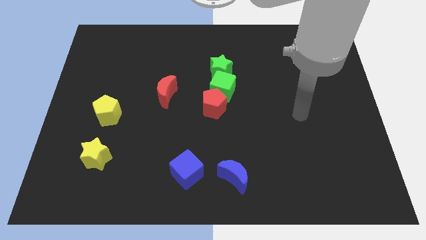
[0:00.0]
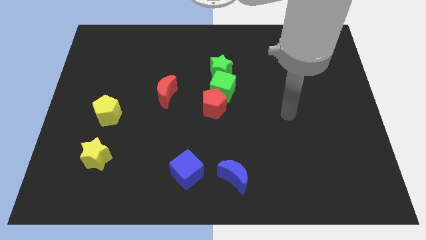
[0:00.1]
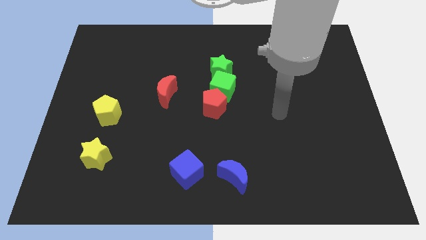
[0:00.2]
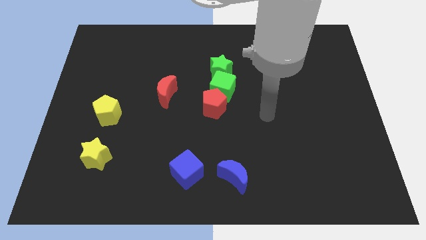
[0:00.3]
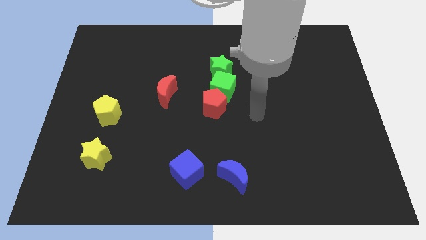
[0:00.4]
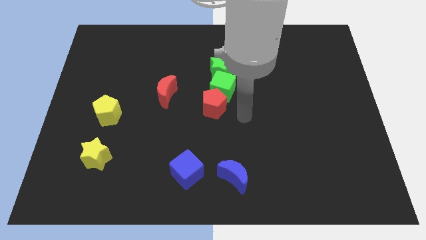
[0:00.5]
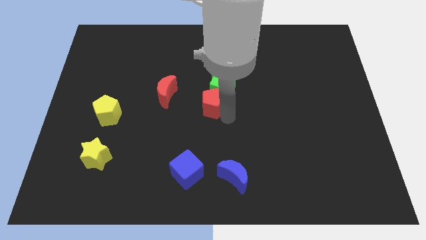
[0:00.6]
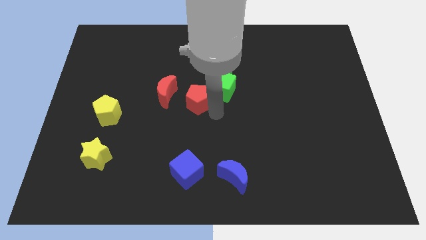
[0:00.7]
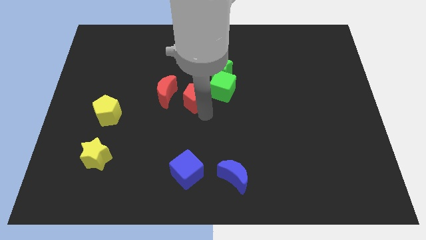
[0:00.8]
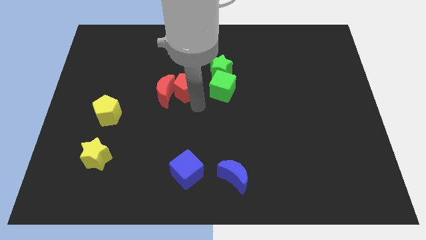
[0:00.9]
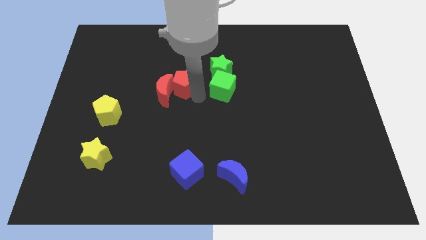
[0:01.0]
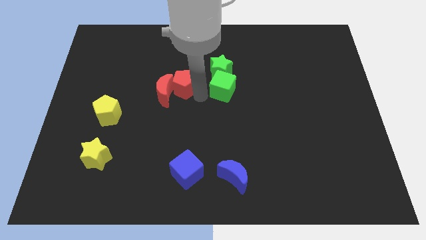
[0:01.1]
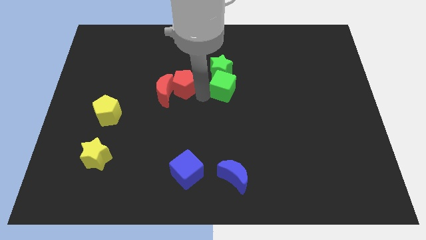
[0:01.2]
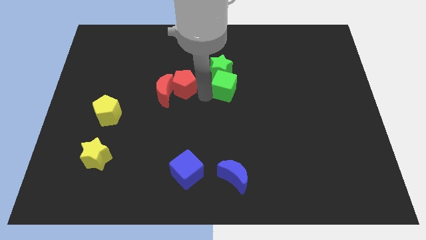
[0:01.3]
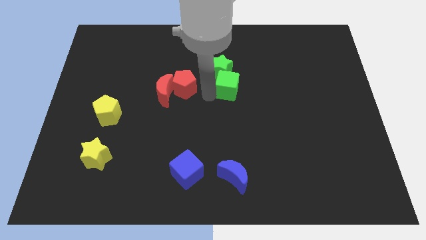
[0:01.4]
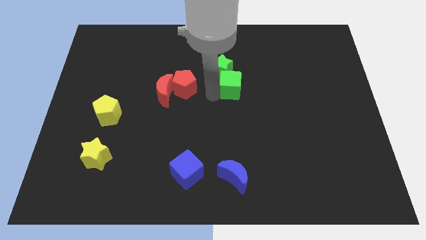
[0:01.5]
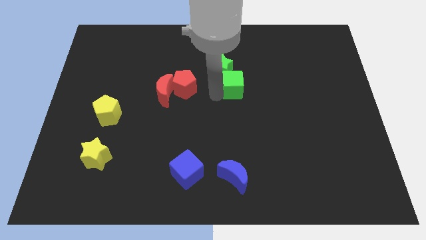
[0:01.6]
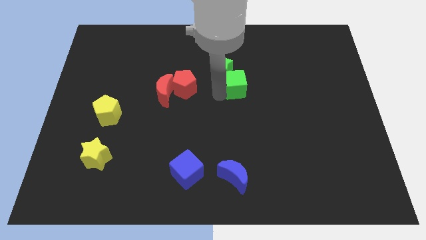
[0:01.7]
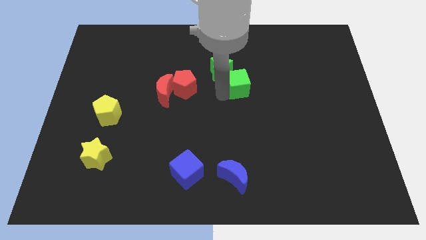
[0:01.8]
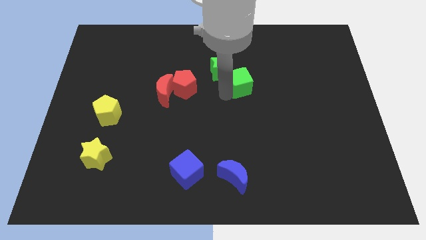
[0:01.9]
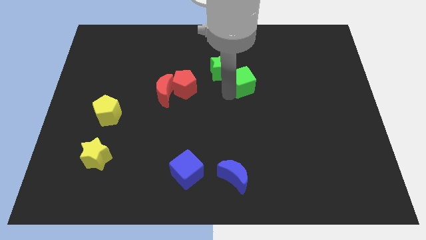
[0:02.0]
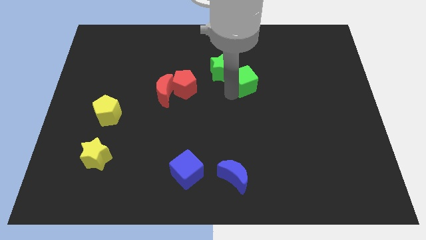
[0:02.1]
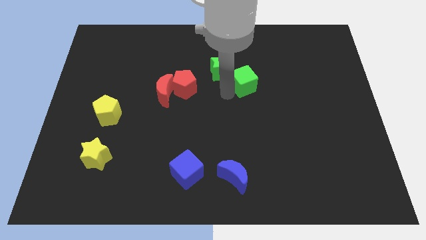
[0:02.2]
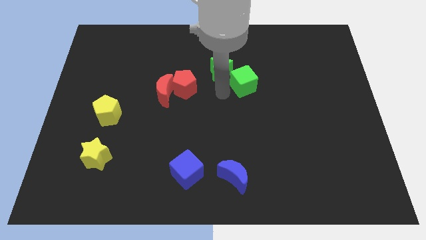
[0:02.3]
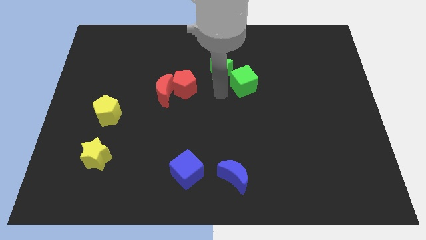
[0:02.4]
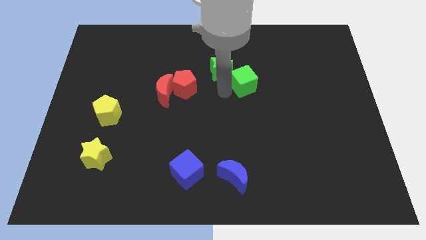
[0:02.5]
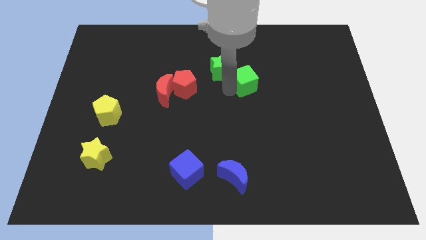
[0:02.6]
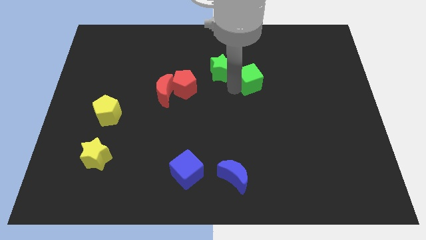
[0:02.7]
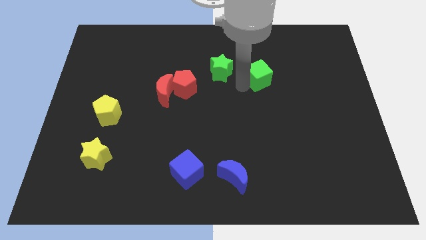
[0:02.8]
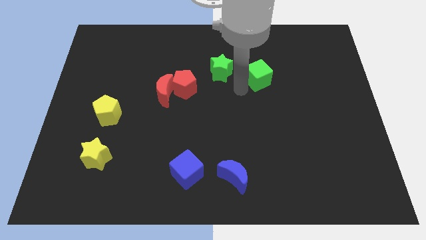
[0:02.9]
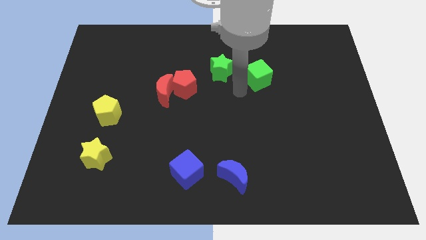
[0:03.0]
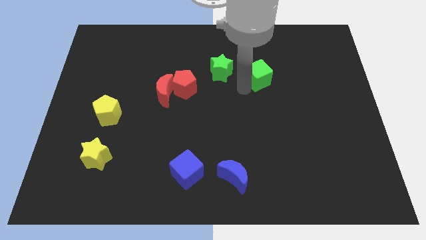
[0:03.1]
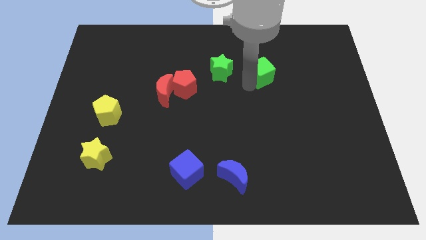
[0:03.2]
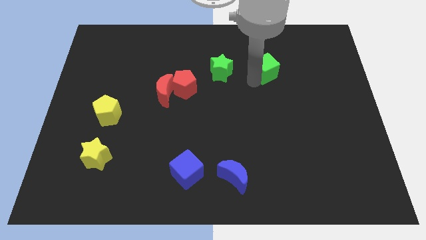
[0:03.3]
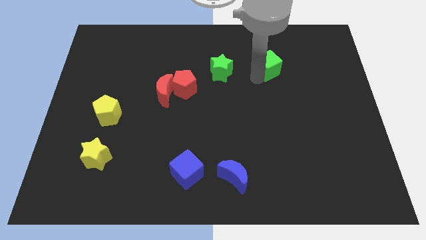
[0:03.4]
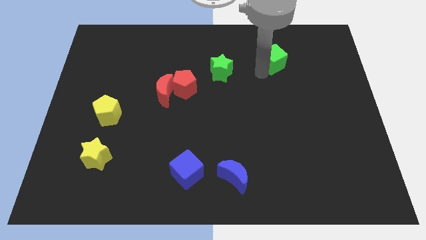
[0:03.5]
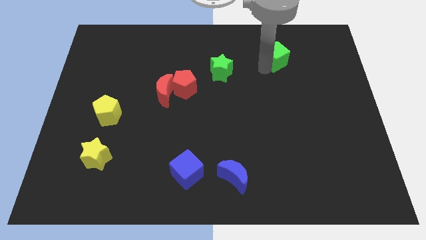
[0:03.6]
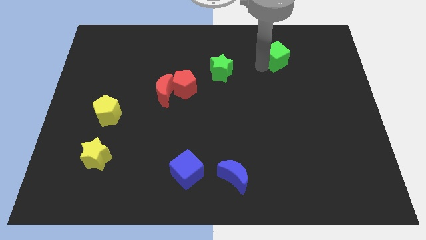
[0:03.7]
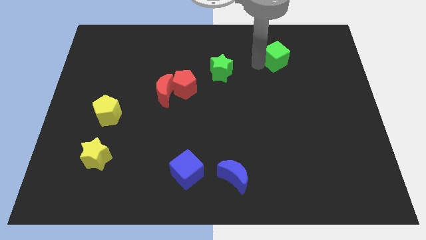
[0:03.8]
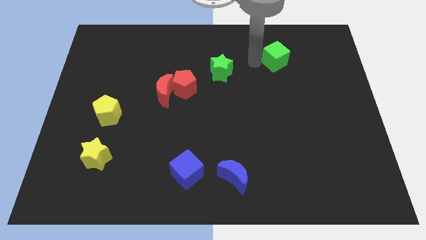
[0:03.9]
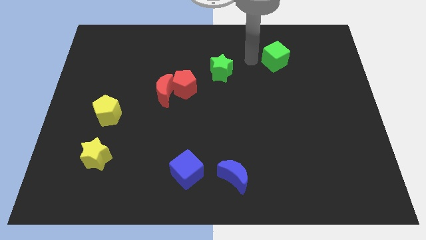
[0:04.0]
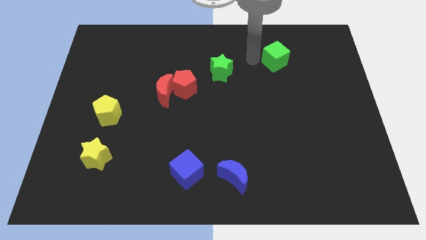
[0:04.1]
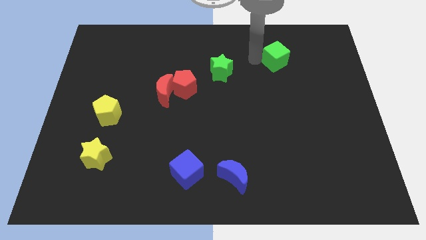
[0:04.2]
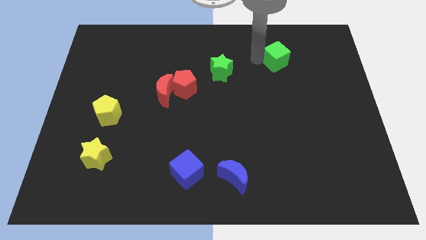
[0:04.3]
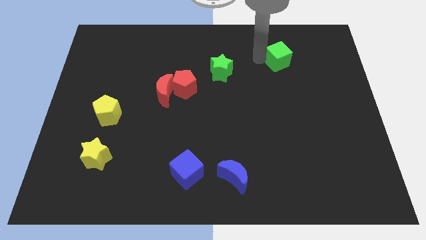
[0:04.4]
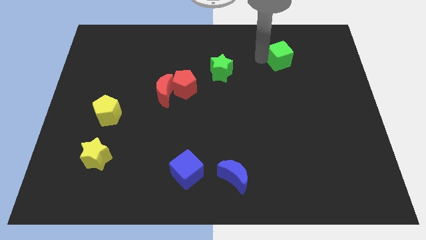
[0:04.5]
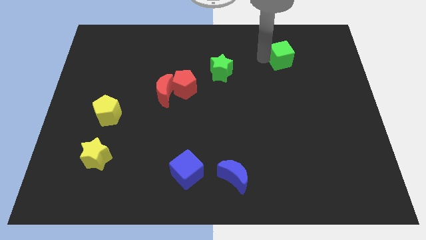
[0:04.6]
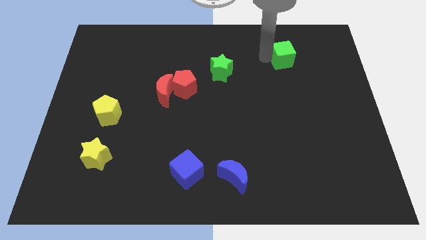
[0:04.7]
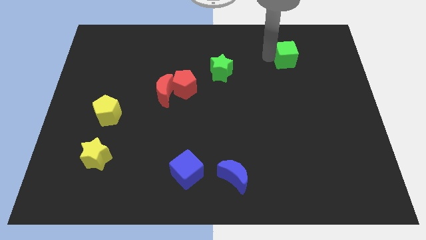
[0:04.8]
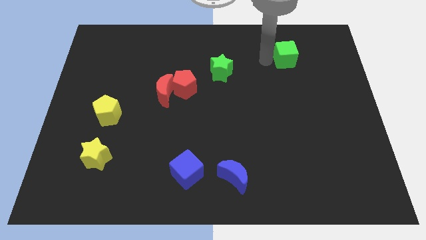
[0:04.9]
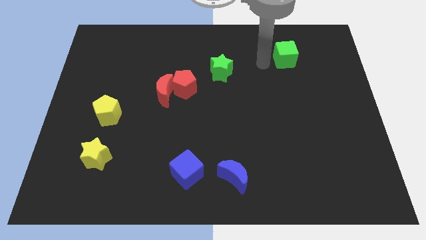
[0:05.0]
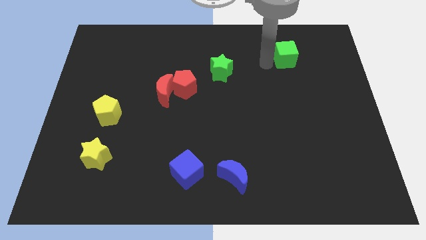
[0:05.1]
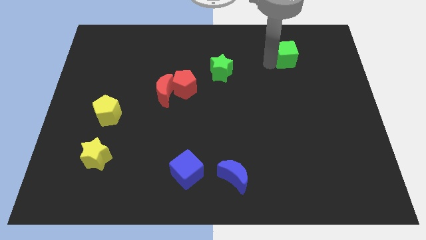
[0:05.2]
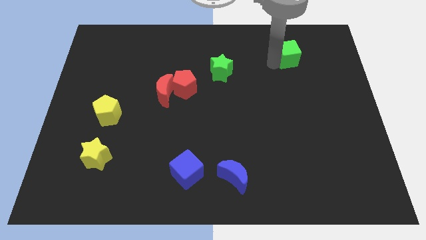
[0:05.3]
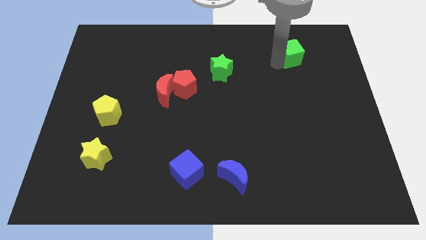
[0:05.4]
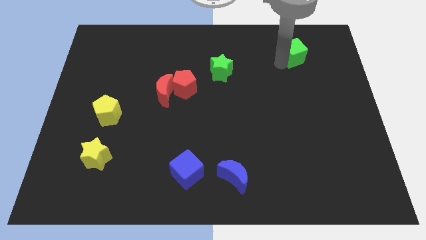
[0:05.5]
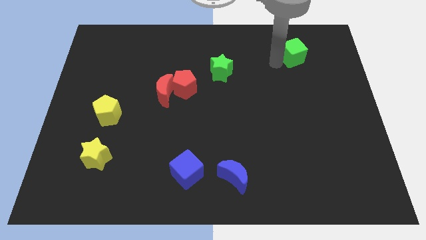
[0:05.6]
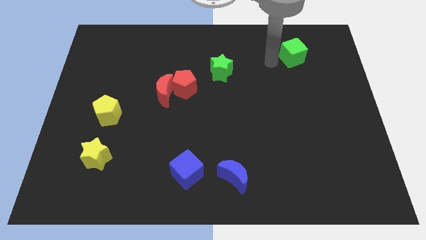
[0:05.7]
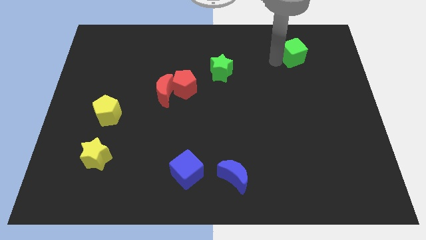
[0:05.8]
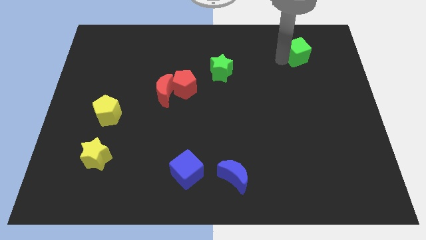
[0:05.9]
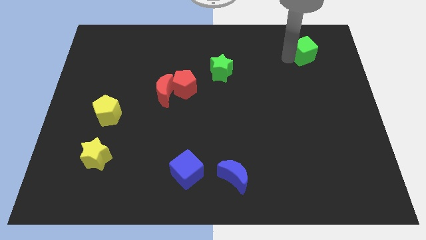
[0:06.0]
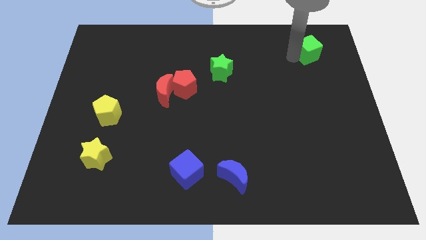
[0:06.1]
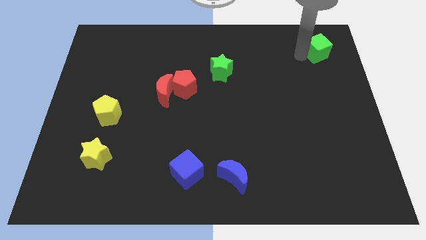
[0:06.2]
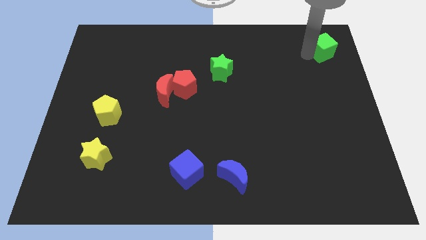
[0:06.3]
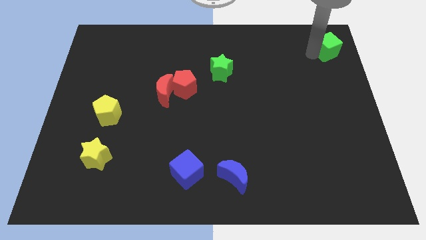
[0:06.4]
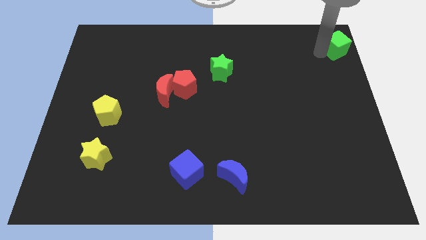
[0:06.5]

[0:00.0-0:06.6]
move the green cube to the top right corner
